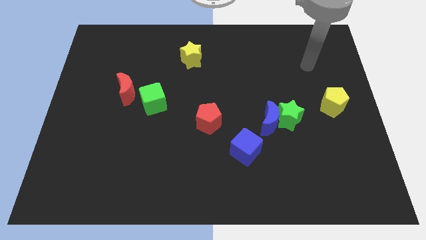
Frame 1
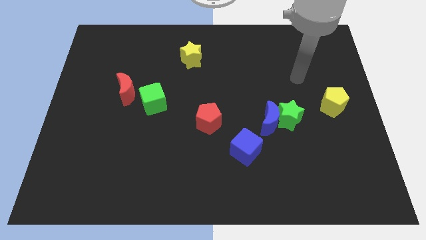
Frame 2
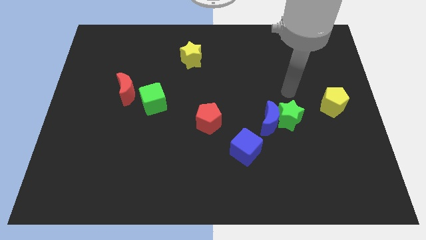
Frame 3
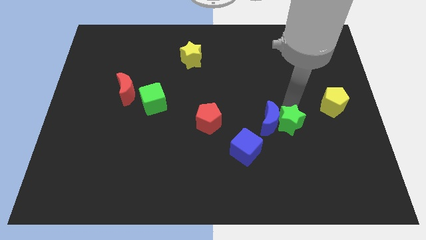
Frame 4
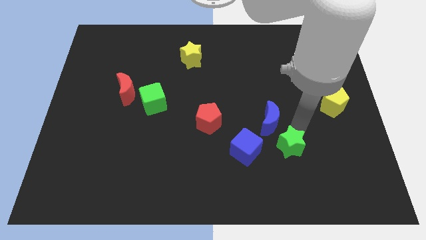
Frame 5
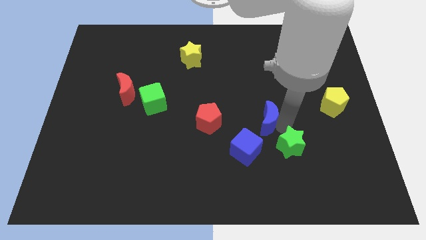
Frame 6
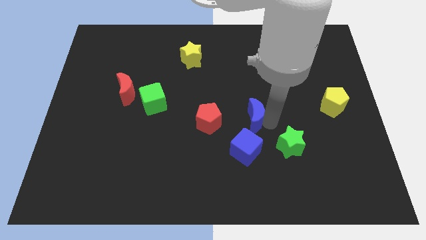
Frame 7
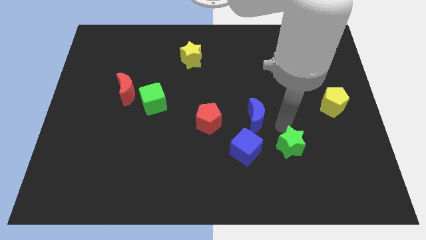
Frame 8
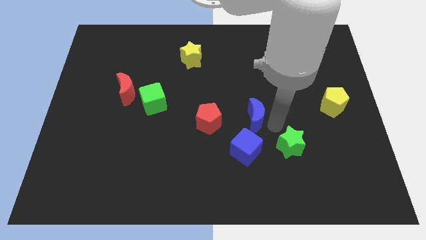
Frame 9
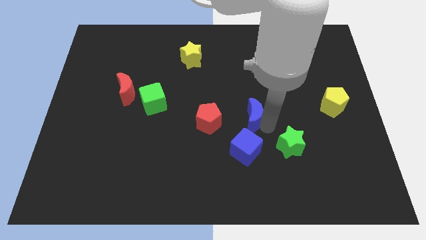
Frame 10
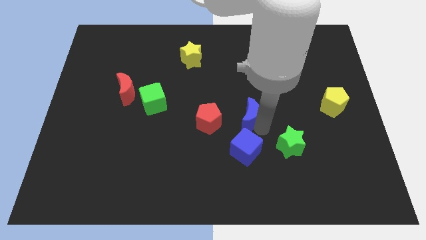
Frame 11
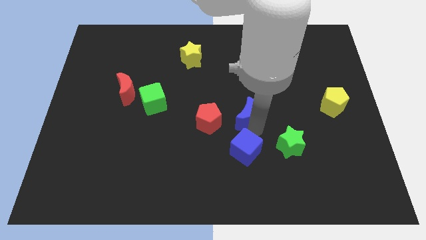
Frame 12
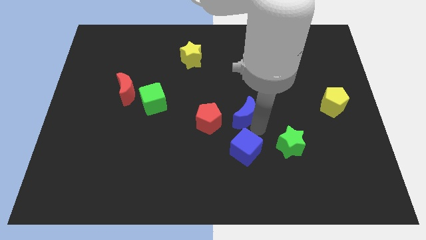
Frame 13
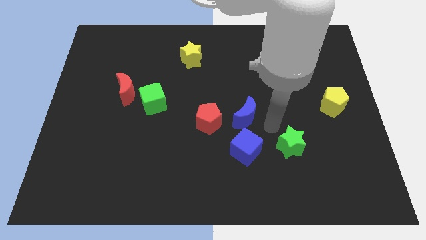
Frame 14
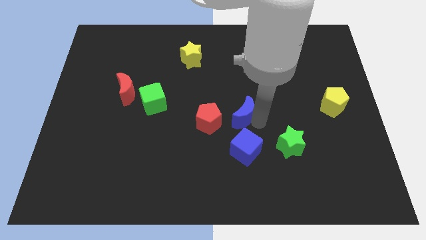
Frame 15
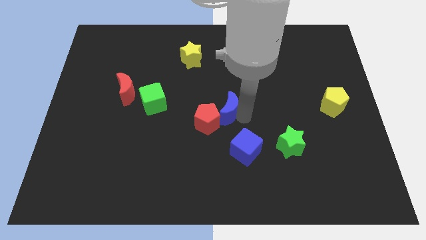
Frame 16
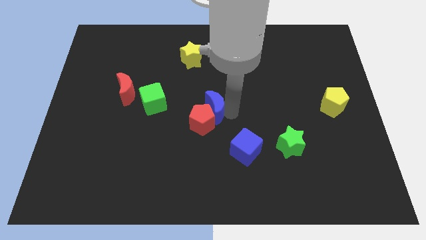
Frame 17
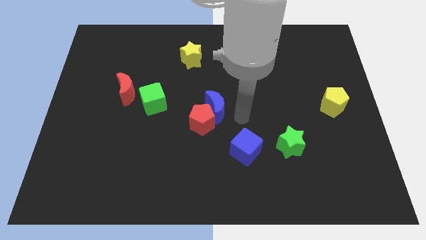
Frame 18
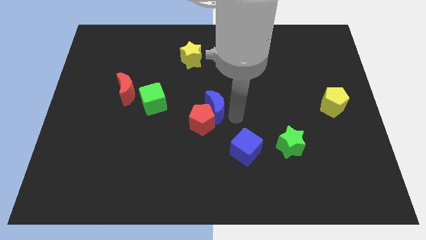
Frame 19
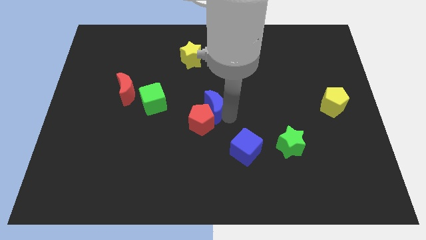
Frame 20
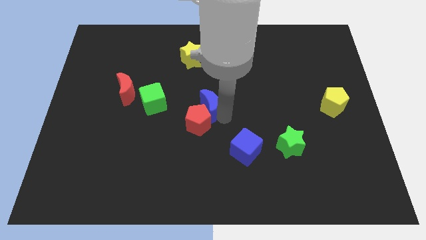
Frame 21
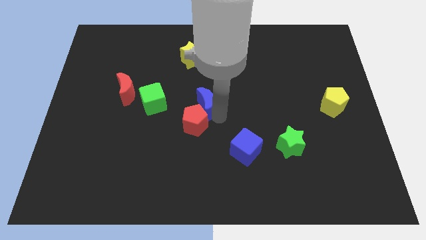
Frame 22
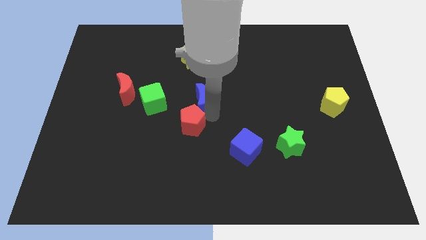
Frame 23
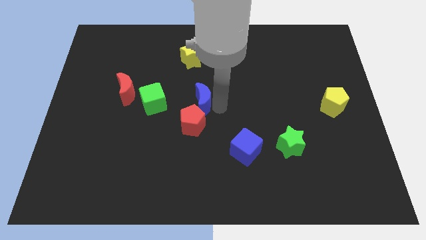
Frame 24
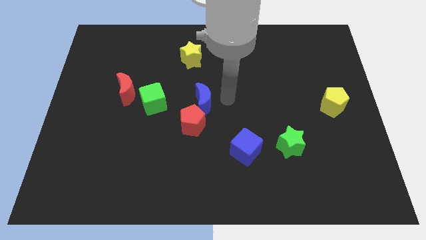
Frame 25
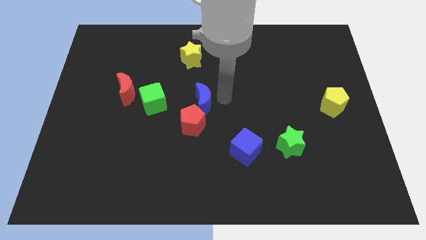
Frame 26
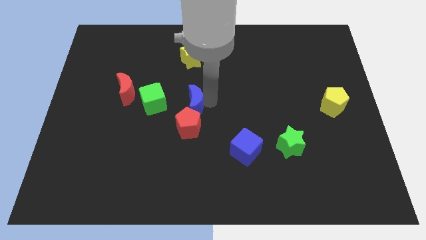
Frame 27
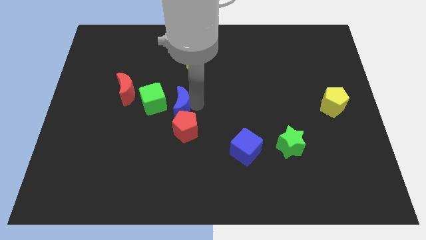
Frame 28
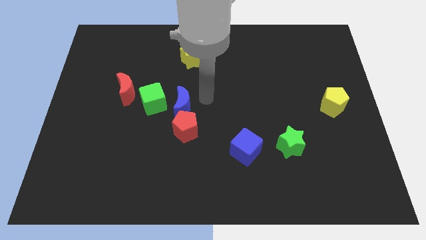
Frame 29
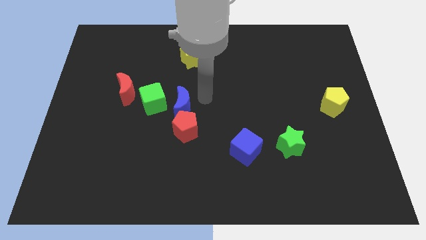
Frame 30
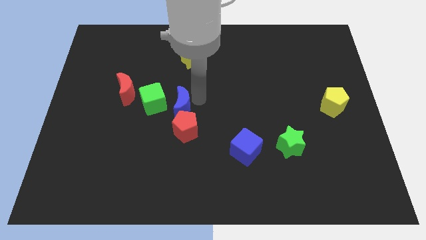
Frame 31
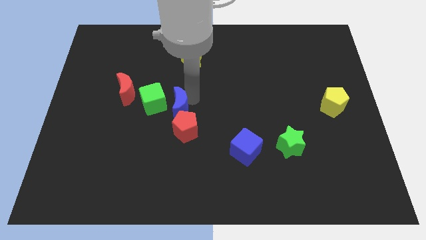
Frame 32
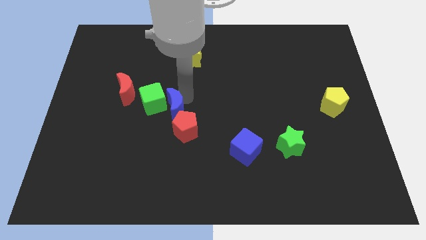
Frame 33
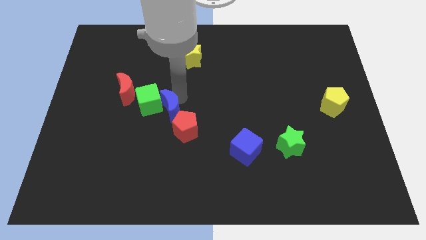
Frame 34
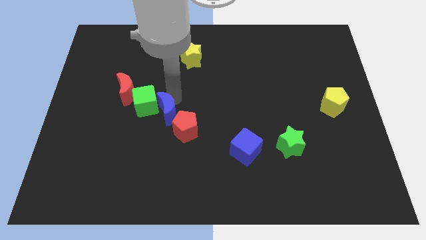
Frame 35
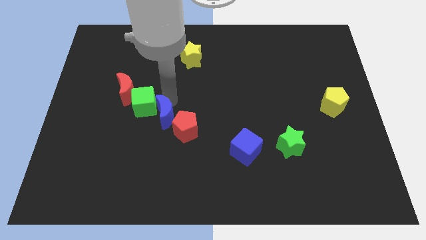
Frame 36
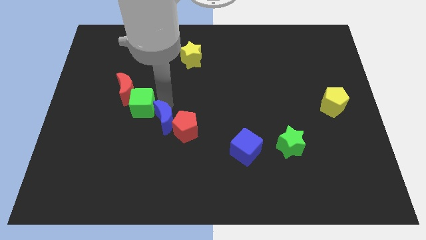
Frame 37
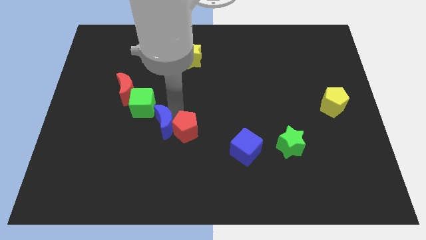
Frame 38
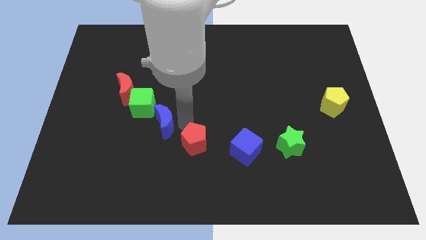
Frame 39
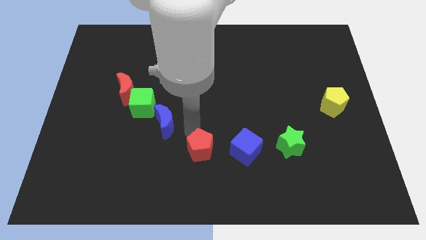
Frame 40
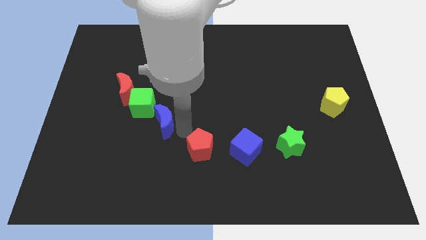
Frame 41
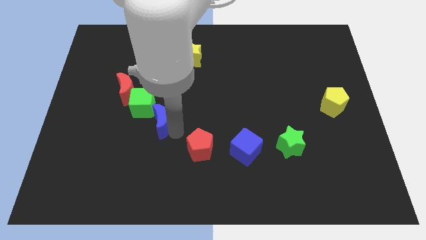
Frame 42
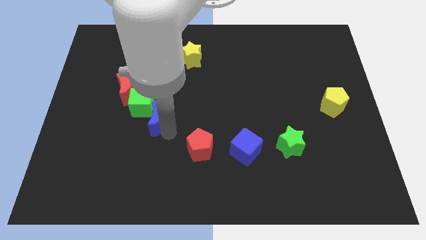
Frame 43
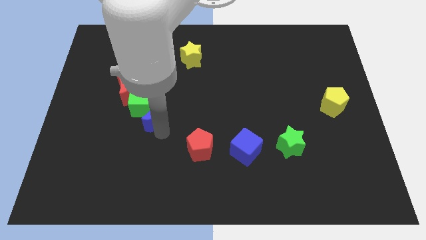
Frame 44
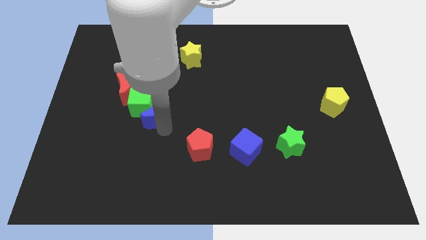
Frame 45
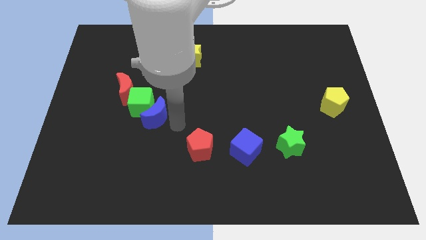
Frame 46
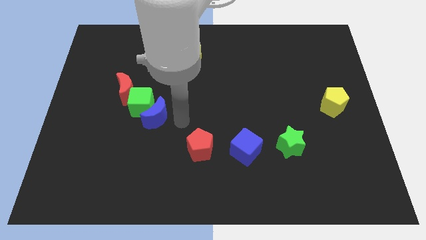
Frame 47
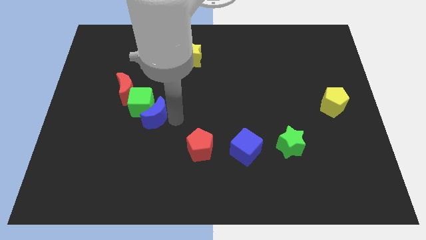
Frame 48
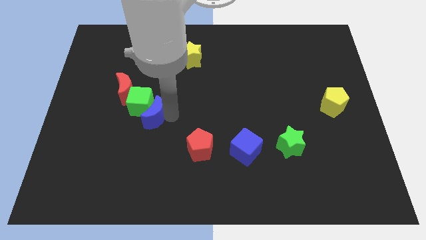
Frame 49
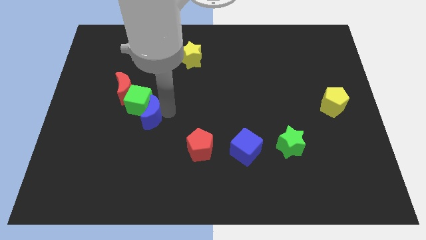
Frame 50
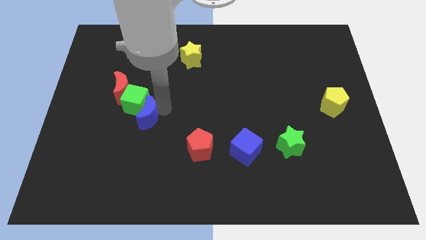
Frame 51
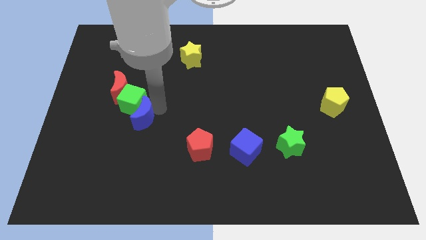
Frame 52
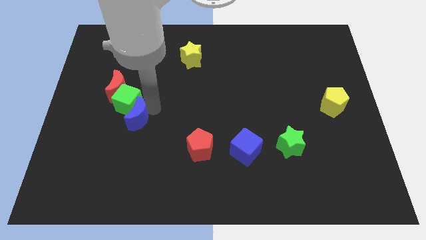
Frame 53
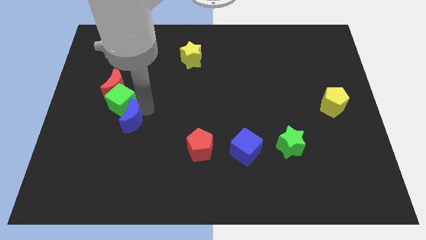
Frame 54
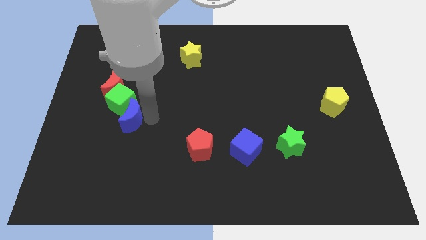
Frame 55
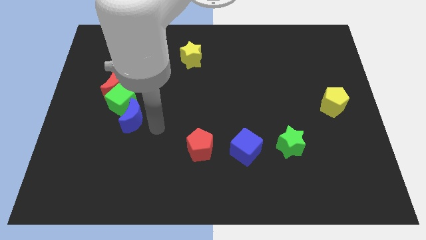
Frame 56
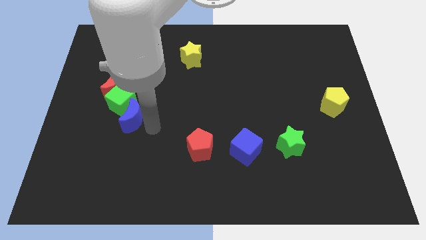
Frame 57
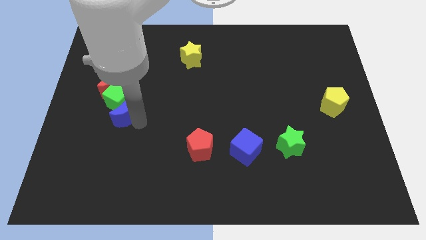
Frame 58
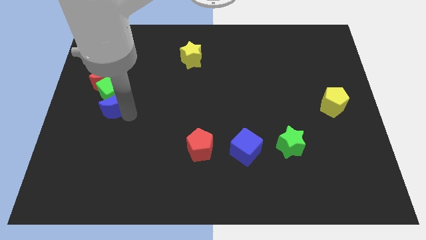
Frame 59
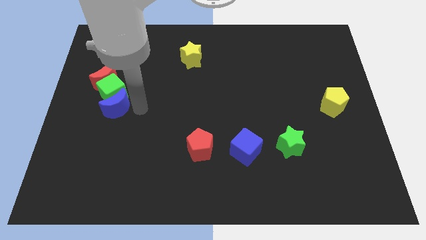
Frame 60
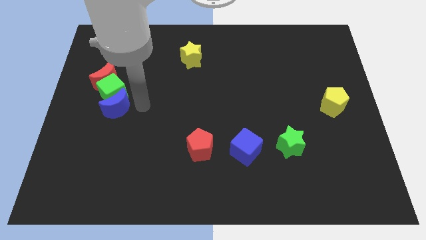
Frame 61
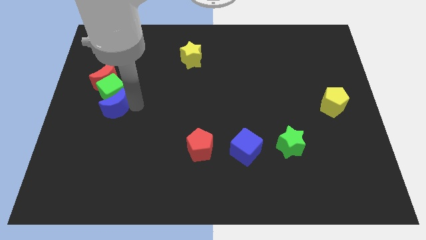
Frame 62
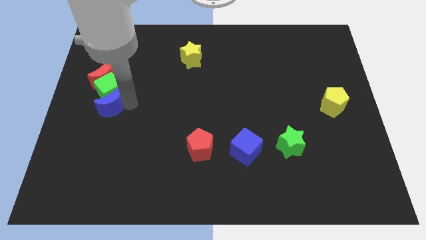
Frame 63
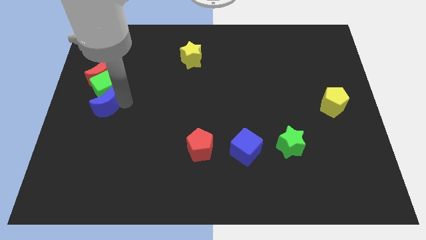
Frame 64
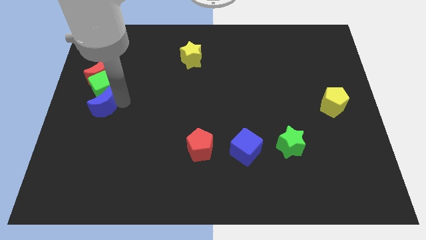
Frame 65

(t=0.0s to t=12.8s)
push the blue moon to the left side of the board
